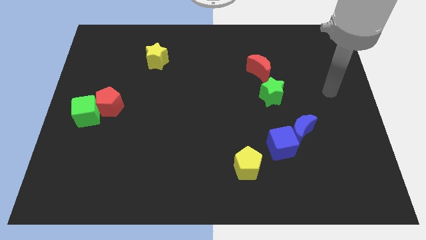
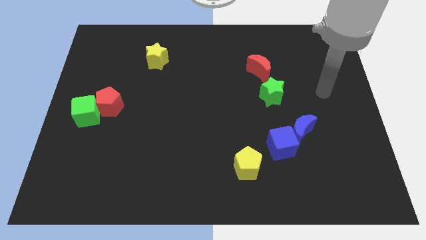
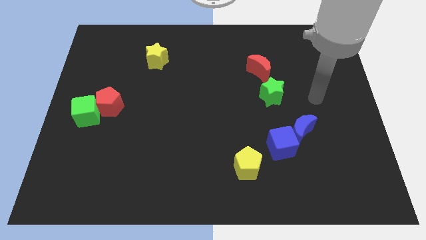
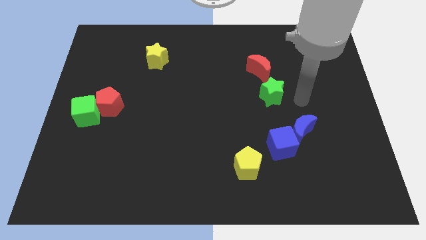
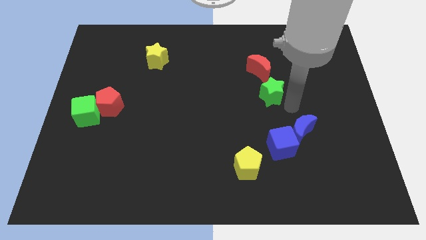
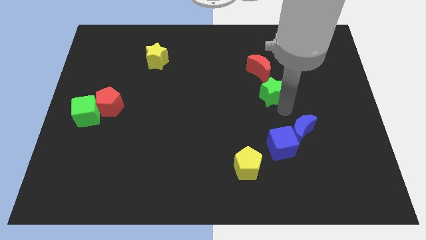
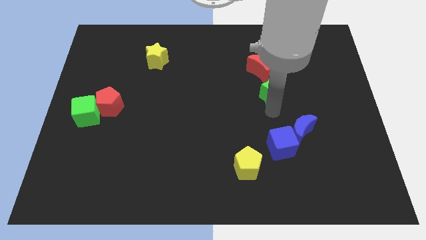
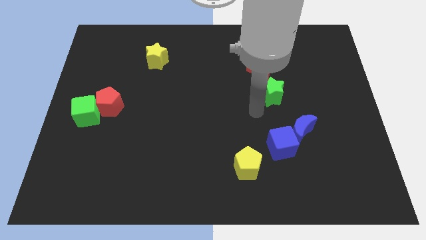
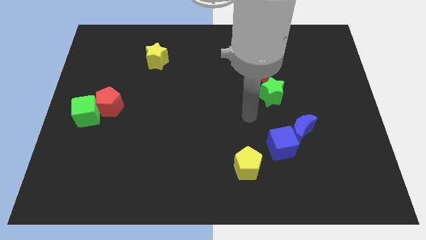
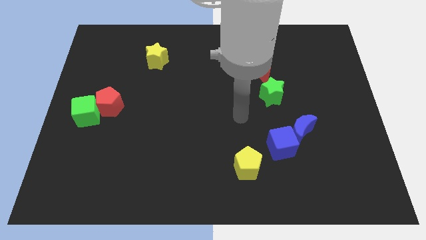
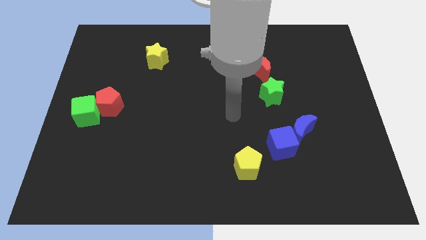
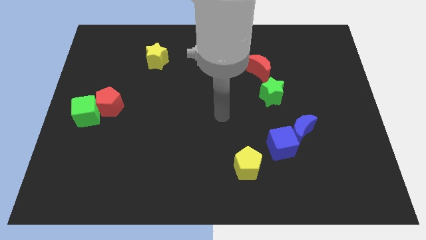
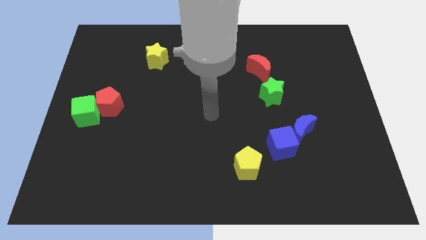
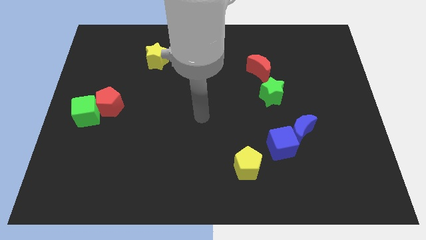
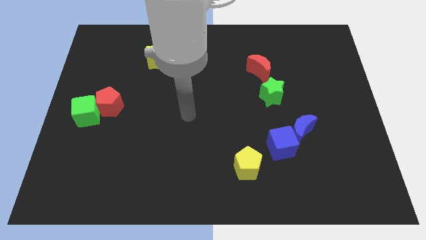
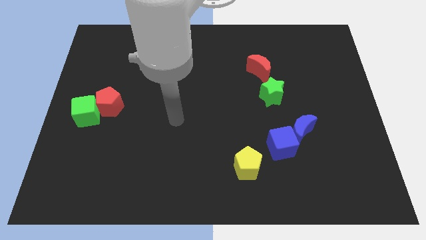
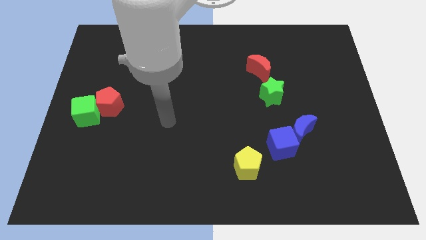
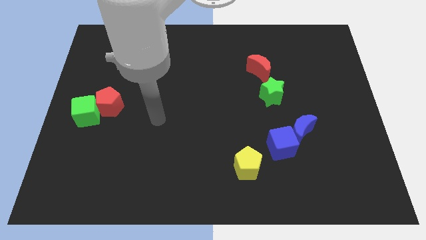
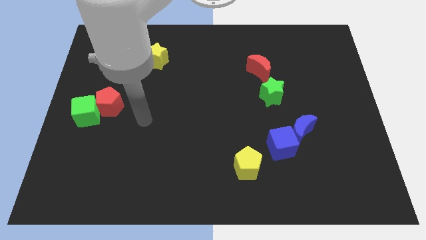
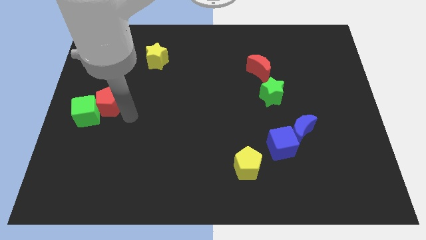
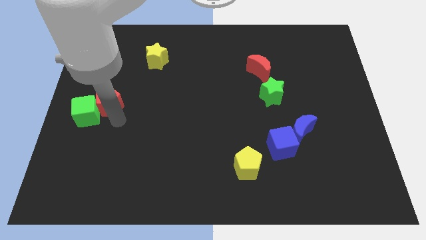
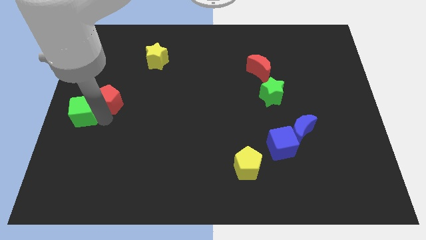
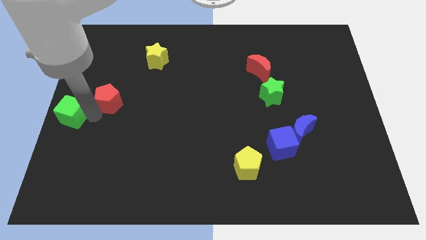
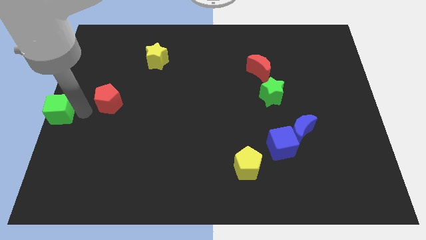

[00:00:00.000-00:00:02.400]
pull the red pentagon apart from the green cube

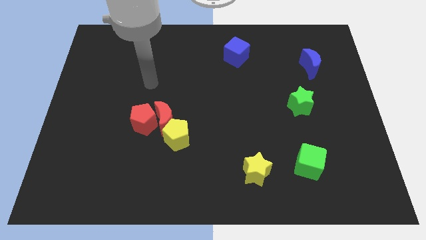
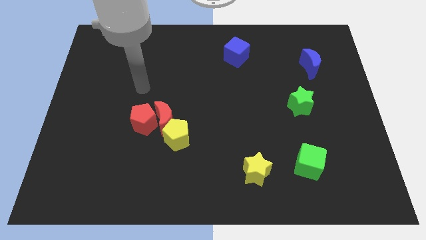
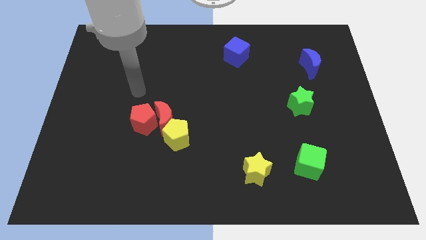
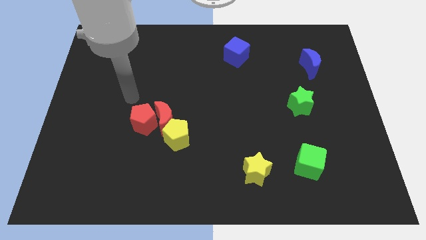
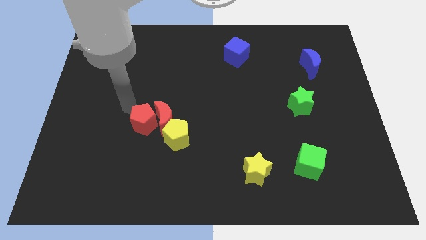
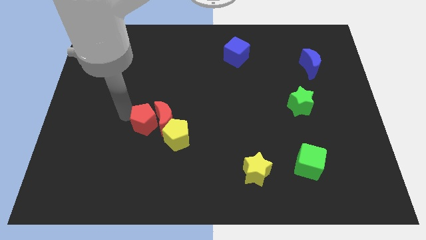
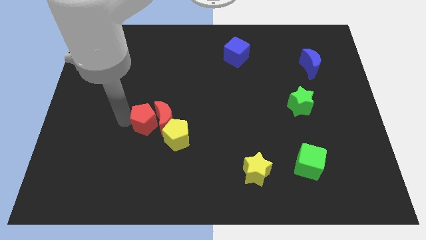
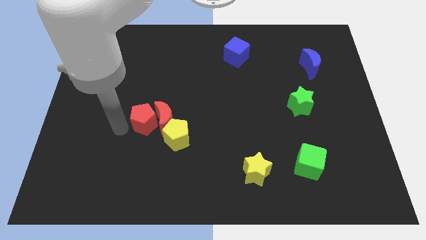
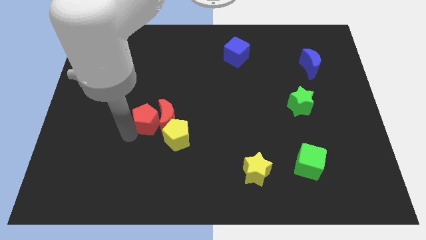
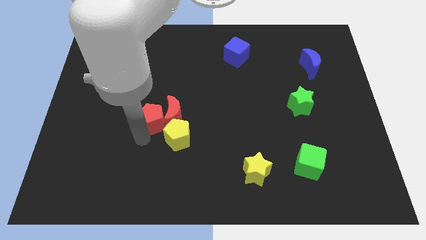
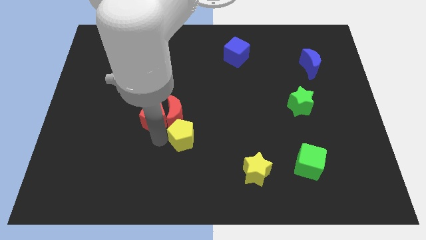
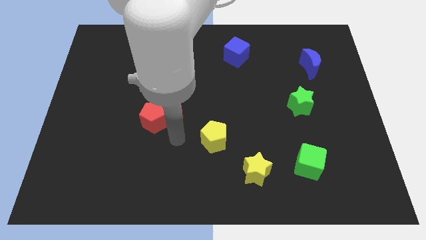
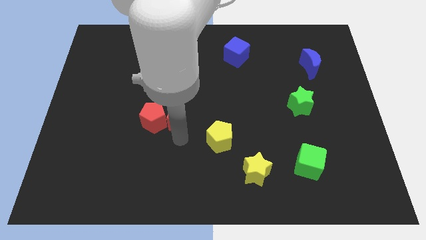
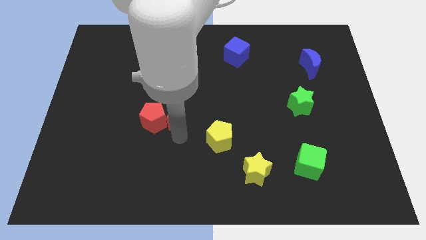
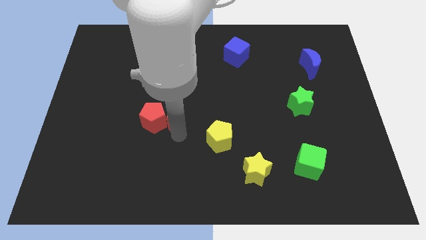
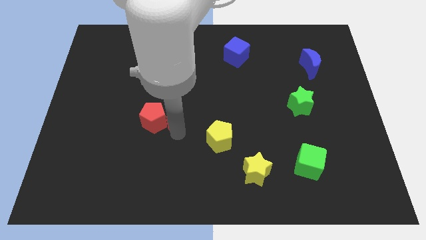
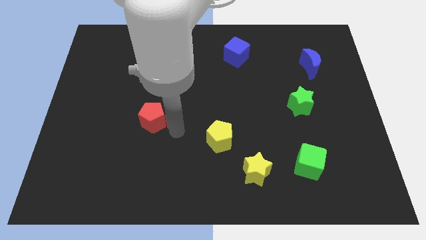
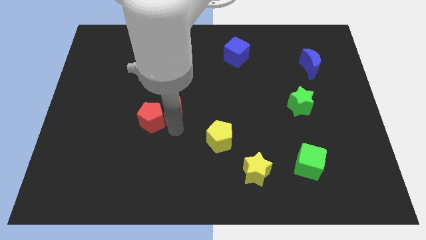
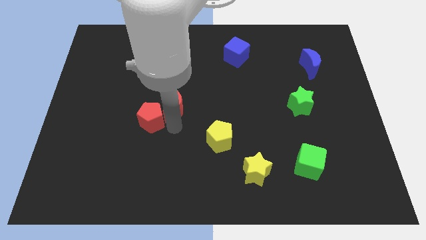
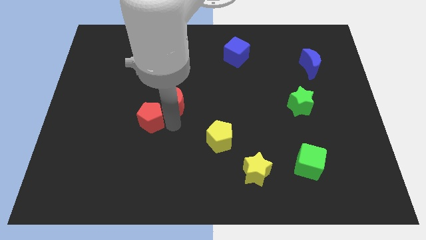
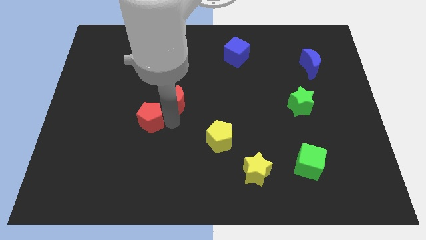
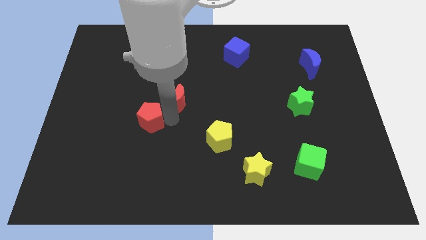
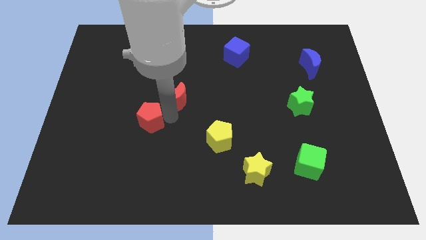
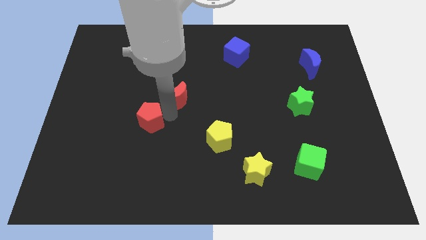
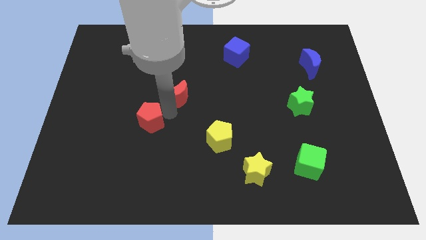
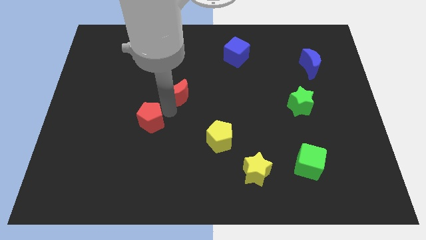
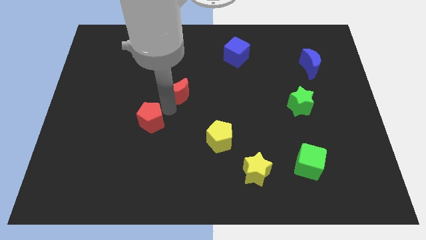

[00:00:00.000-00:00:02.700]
move the red moon away from the red pentagon and yellow pentagon

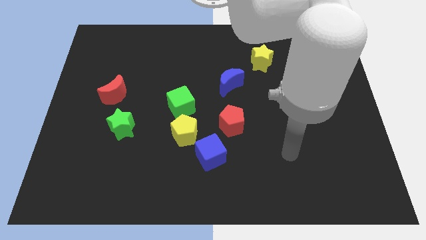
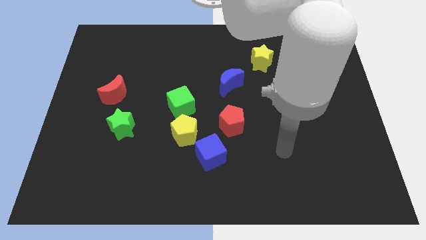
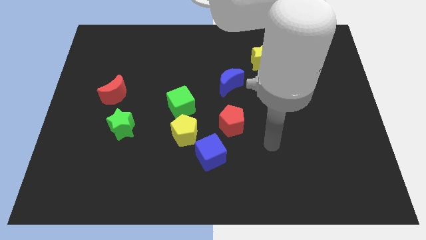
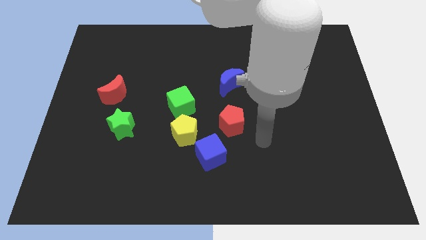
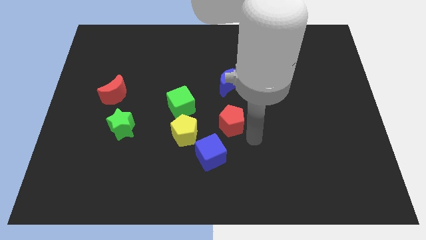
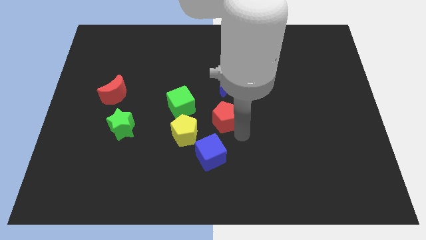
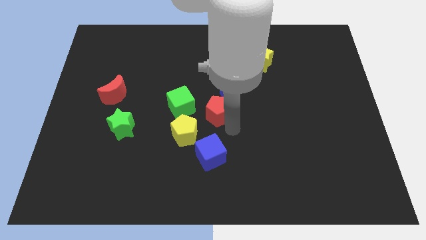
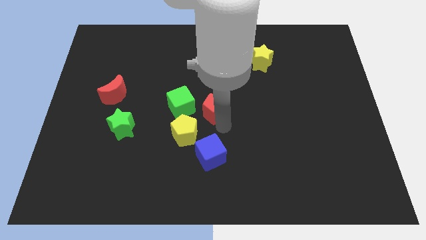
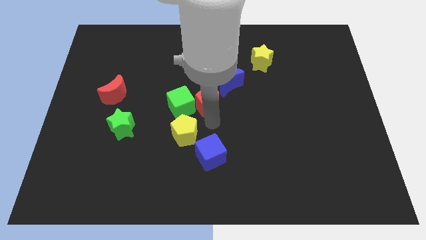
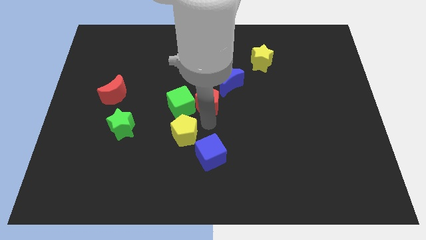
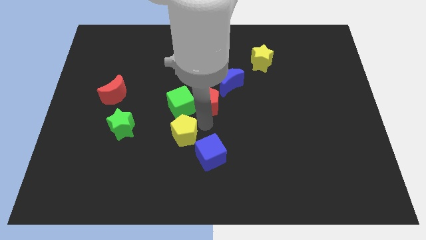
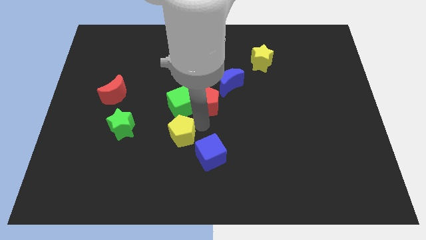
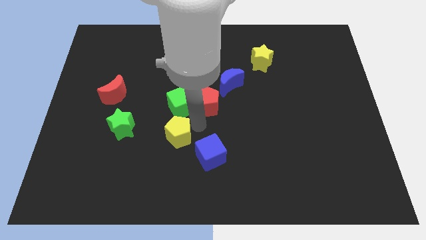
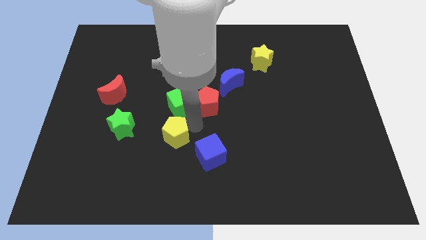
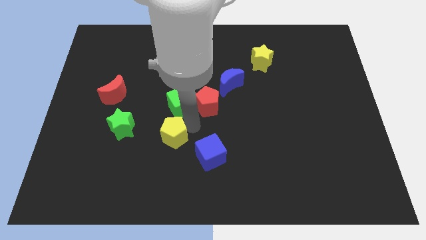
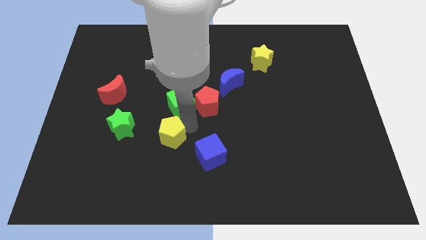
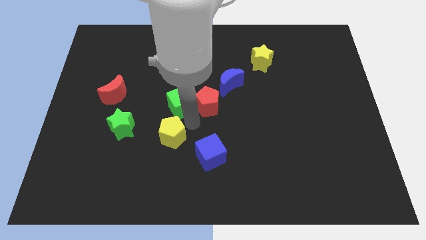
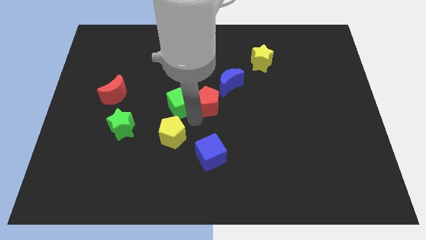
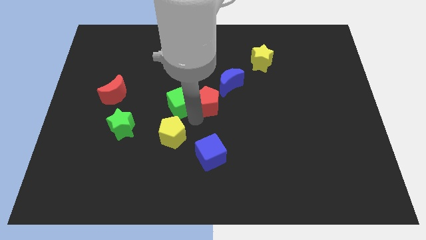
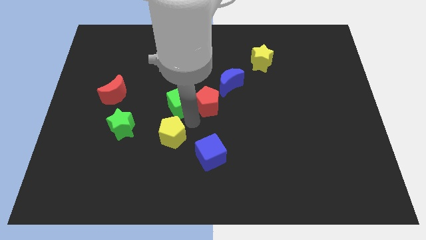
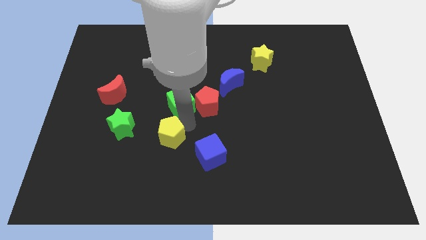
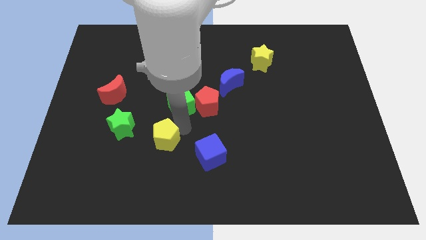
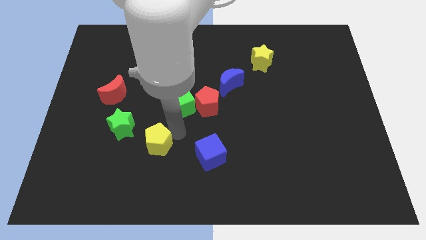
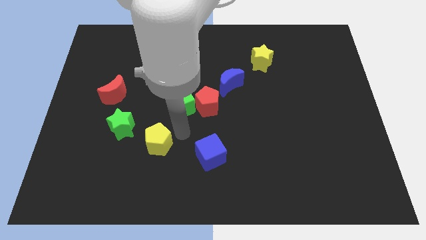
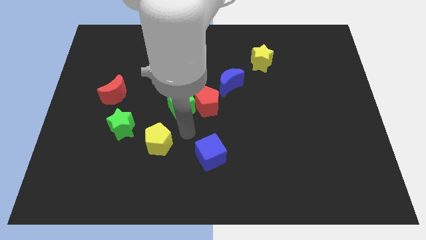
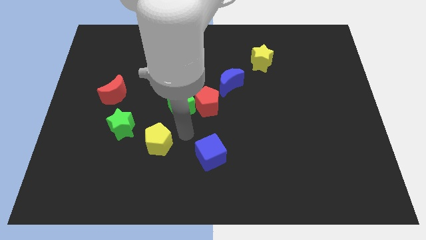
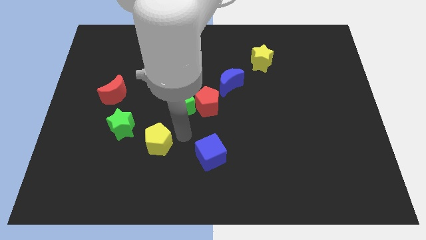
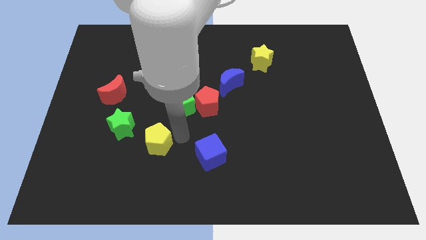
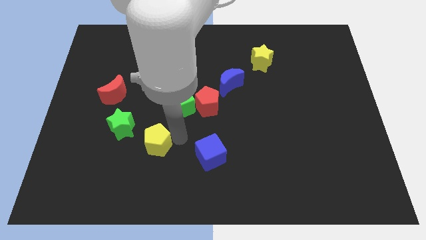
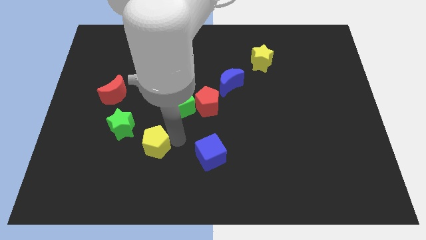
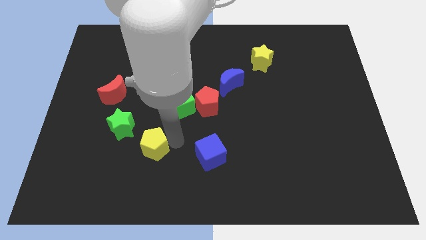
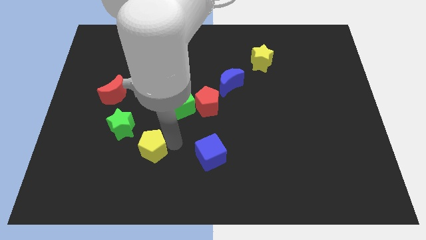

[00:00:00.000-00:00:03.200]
move the yellow pentagon away from the blue cube and green cube

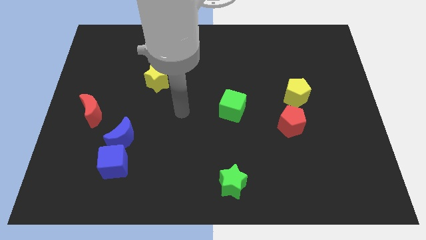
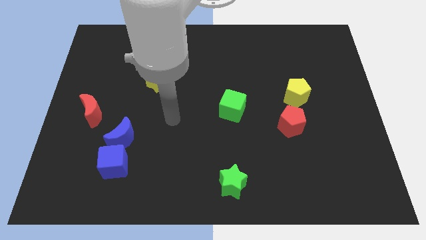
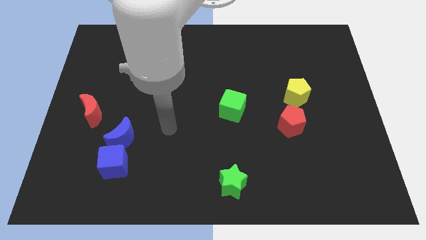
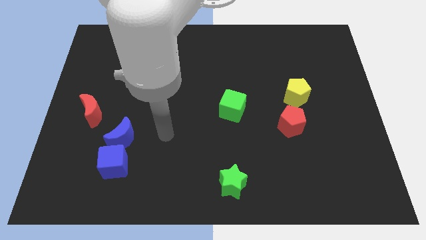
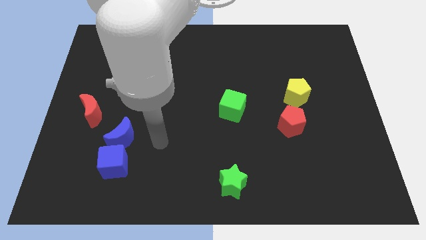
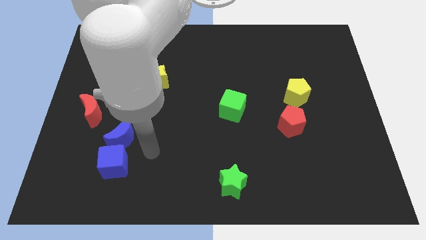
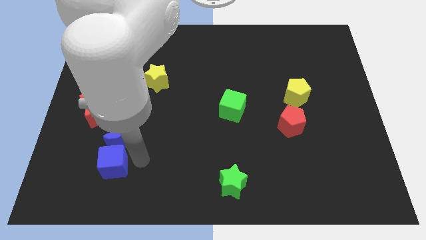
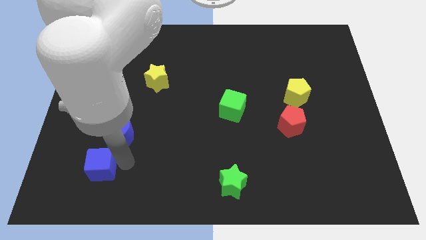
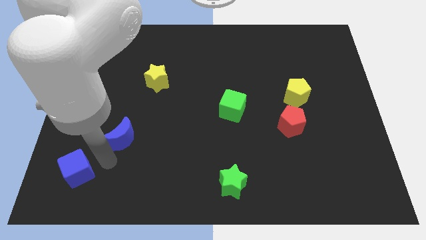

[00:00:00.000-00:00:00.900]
move the blue moon away from the blue cube

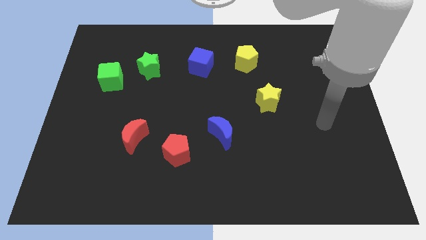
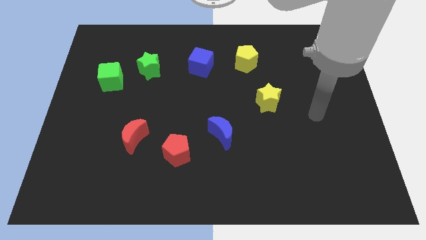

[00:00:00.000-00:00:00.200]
pull the green cube apart from the green star
